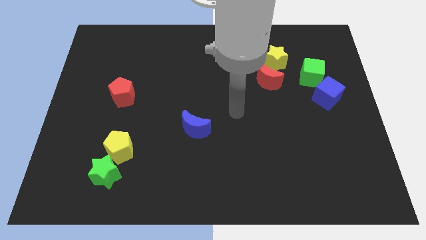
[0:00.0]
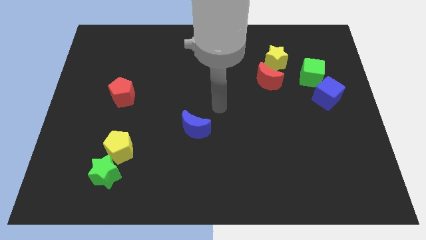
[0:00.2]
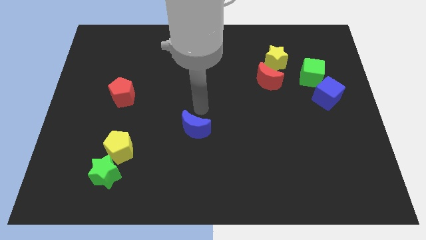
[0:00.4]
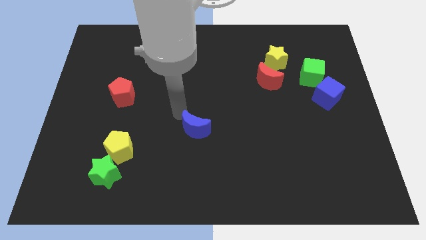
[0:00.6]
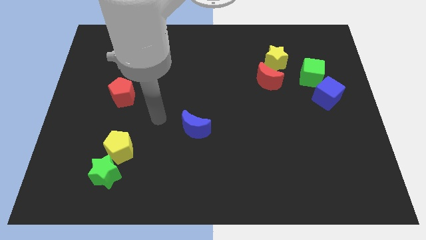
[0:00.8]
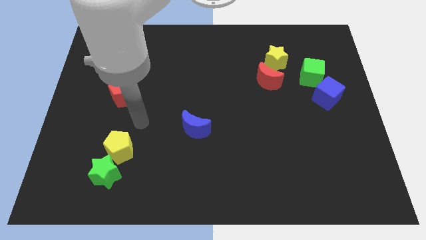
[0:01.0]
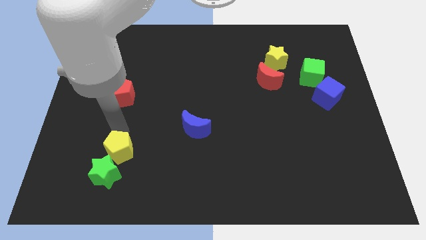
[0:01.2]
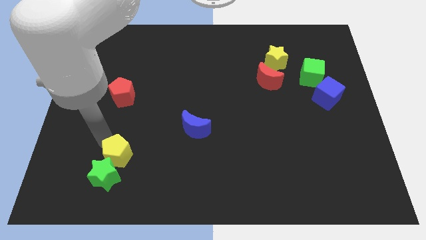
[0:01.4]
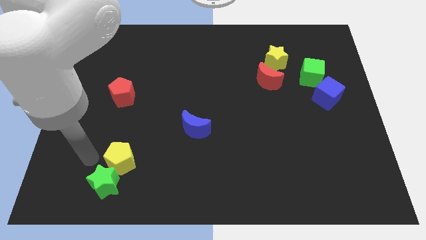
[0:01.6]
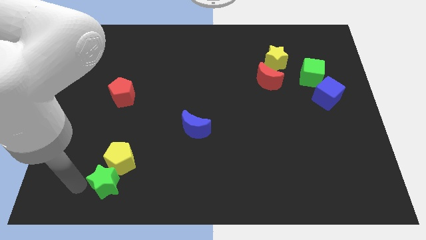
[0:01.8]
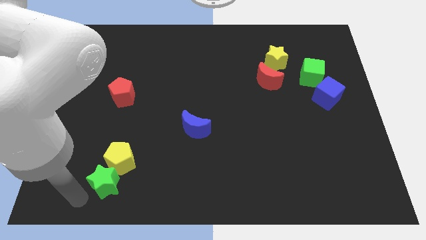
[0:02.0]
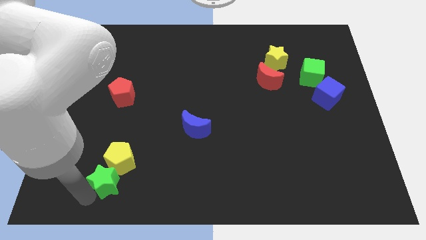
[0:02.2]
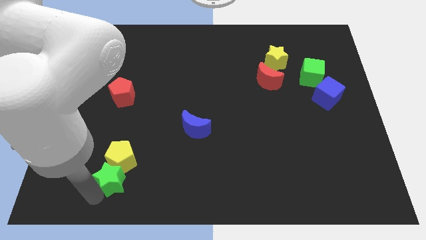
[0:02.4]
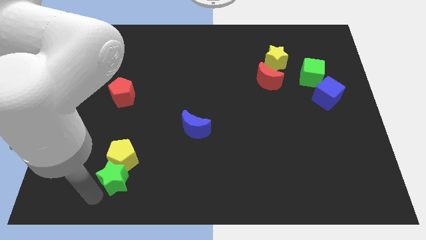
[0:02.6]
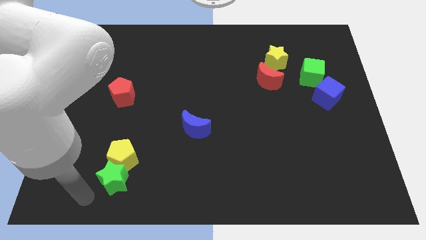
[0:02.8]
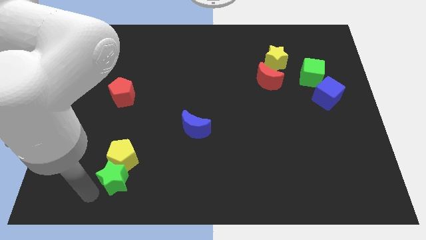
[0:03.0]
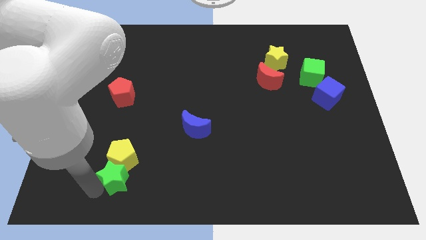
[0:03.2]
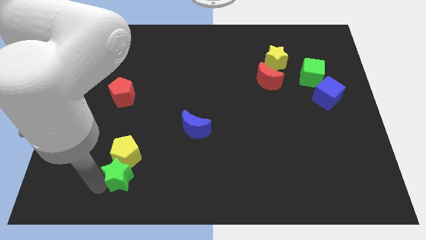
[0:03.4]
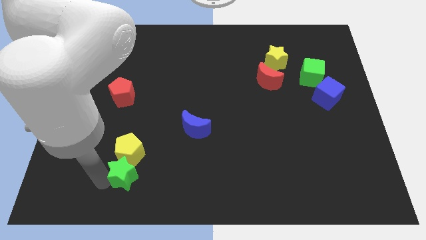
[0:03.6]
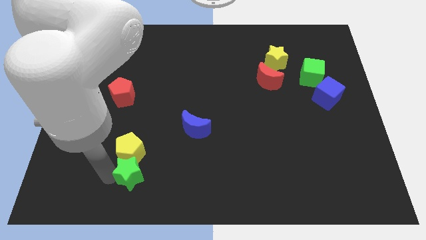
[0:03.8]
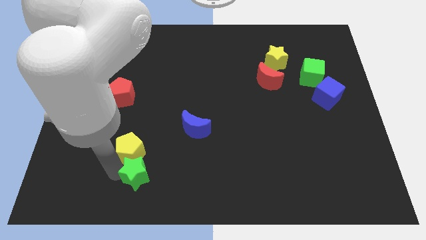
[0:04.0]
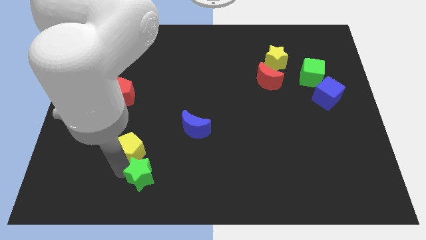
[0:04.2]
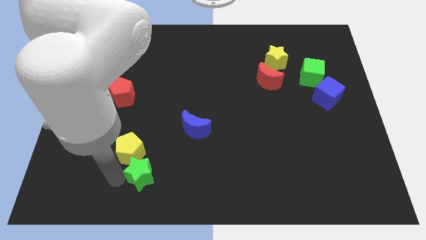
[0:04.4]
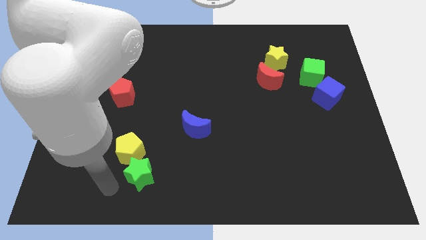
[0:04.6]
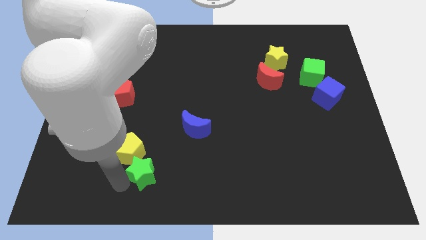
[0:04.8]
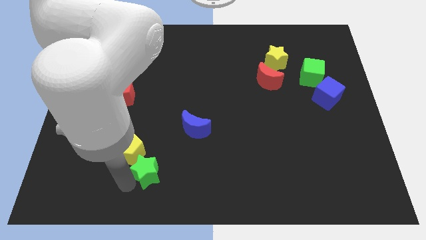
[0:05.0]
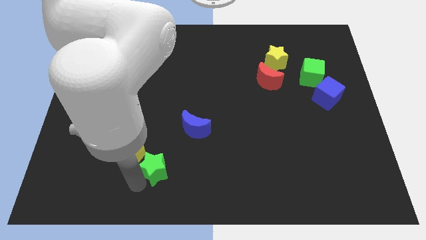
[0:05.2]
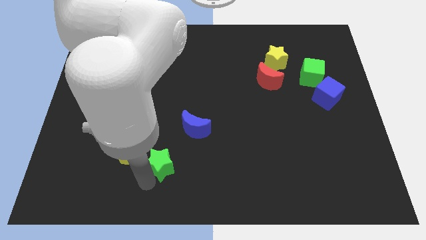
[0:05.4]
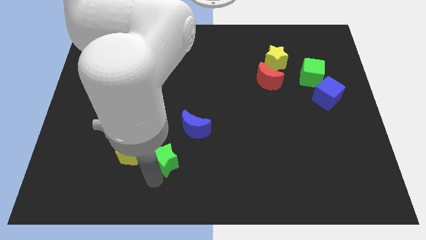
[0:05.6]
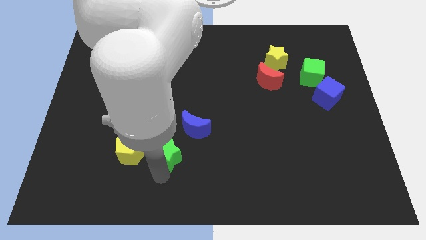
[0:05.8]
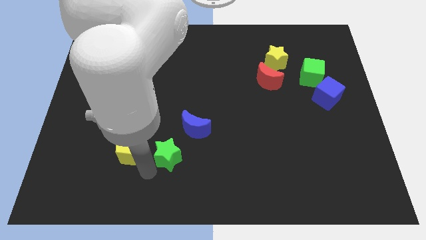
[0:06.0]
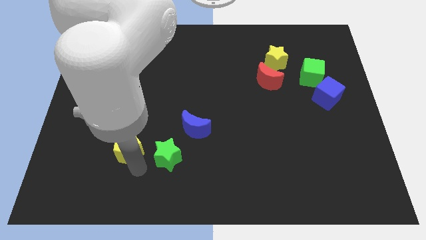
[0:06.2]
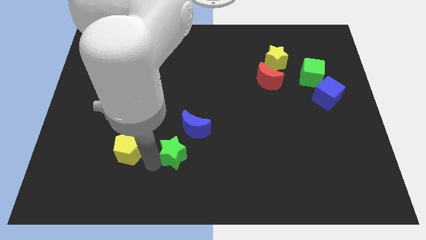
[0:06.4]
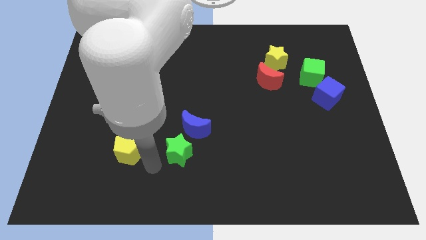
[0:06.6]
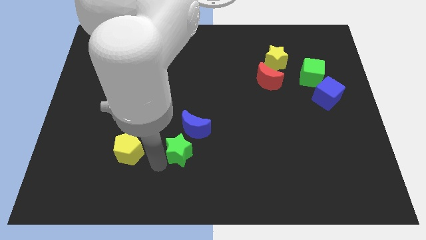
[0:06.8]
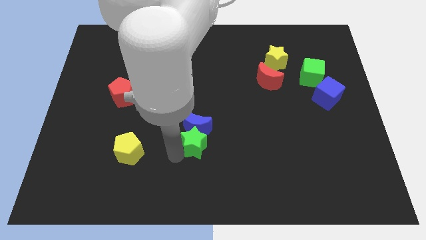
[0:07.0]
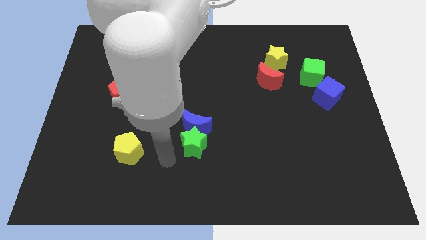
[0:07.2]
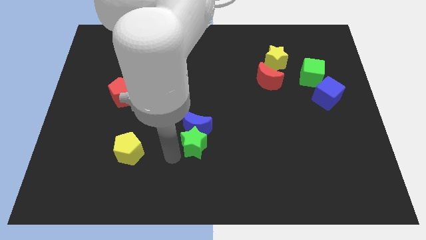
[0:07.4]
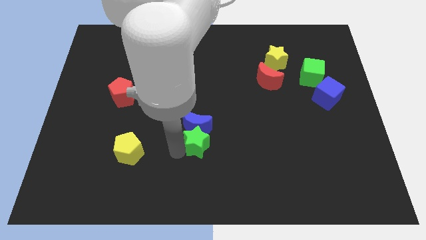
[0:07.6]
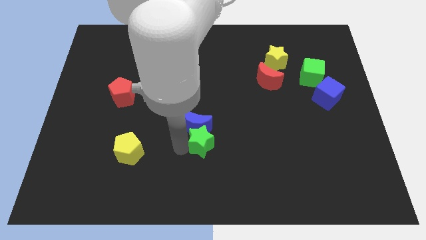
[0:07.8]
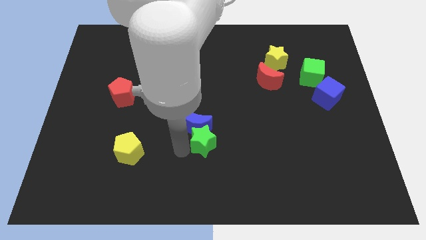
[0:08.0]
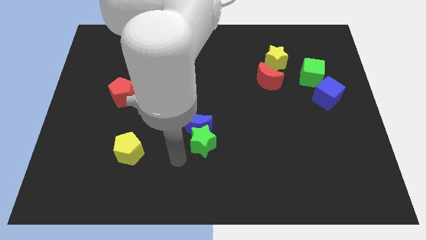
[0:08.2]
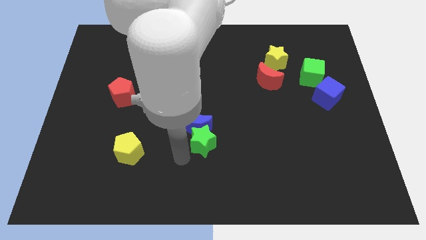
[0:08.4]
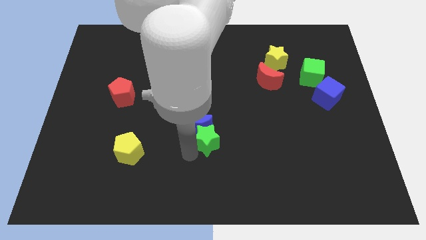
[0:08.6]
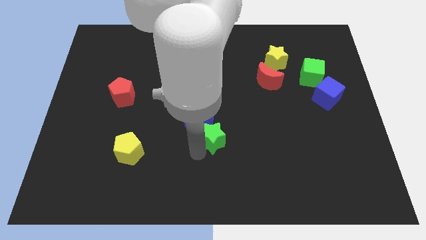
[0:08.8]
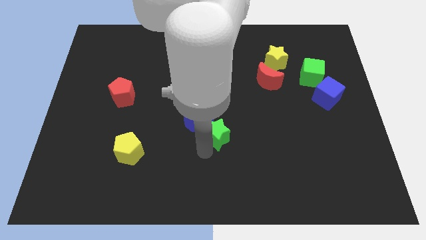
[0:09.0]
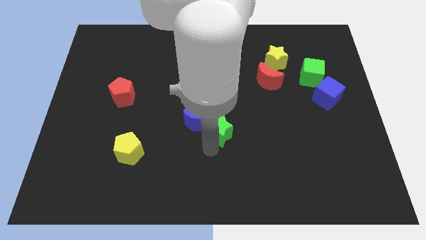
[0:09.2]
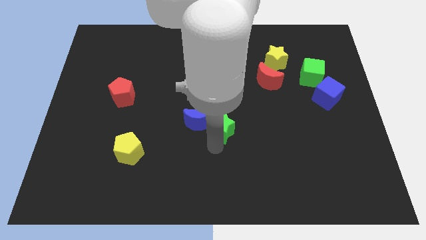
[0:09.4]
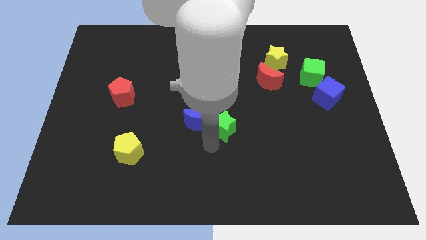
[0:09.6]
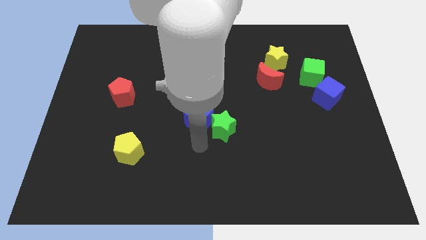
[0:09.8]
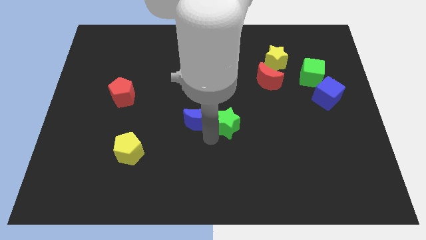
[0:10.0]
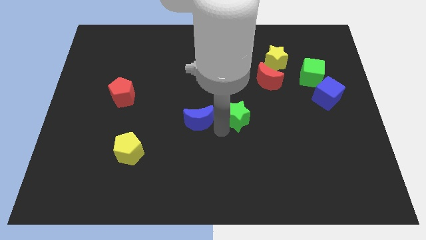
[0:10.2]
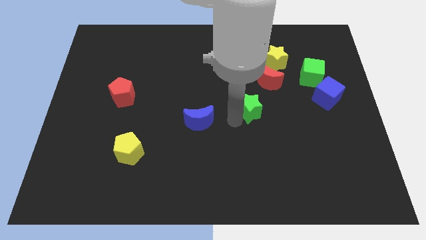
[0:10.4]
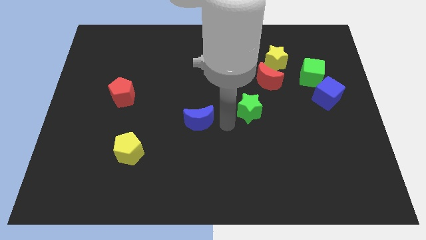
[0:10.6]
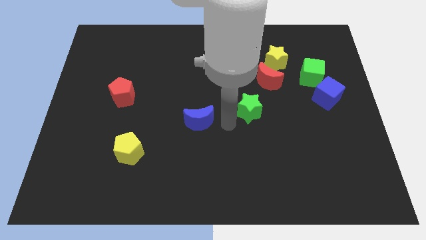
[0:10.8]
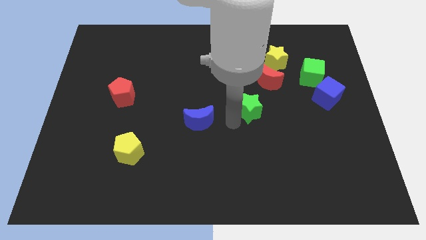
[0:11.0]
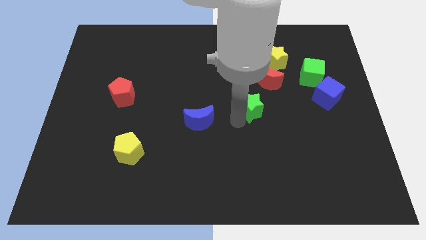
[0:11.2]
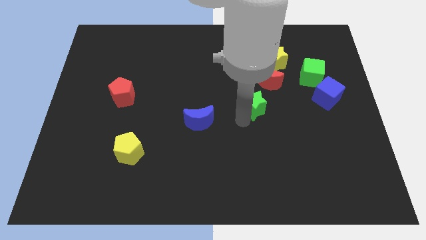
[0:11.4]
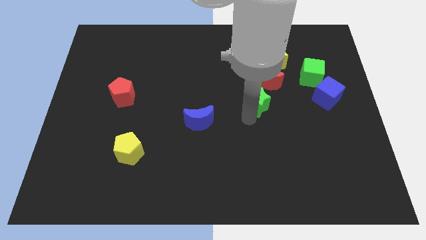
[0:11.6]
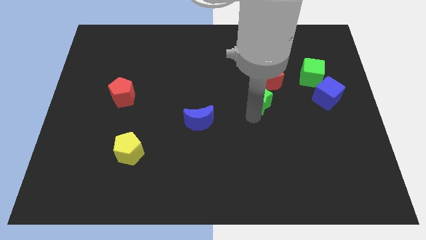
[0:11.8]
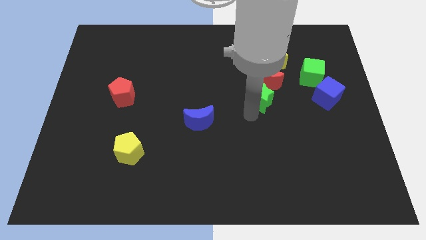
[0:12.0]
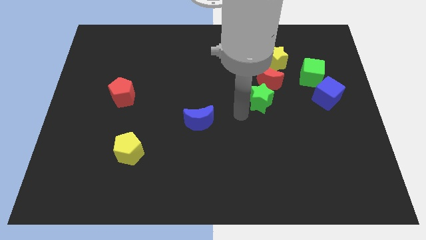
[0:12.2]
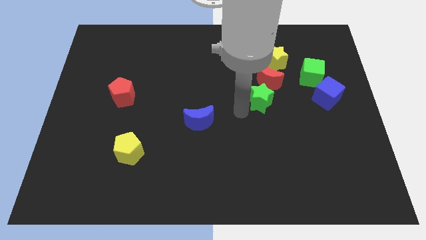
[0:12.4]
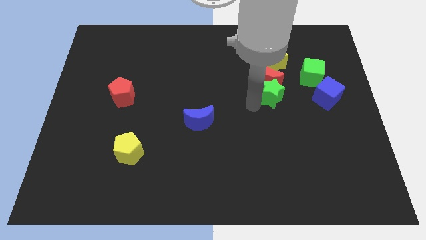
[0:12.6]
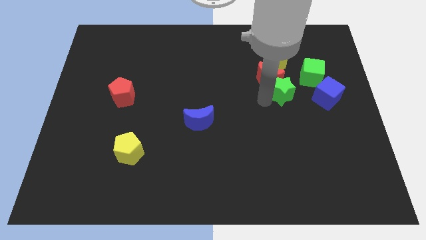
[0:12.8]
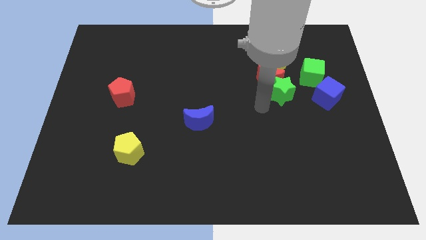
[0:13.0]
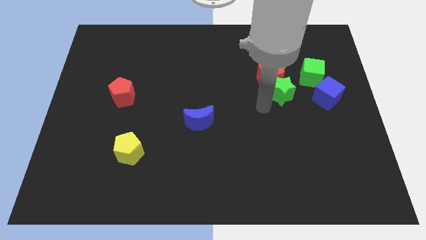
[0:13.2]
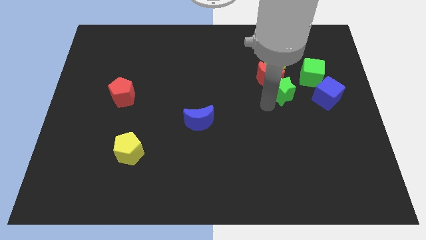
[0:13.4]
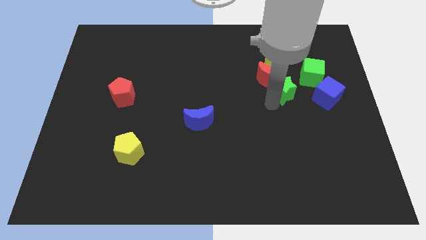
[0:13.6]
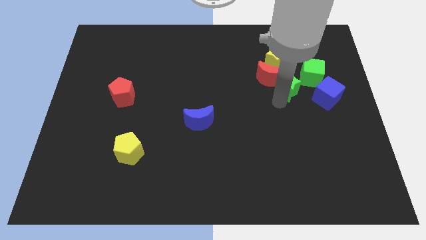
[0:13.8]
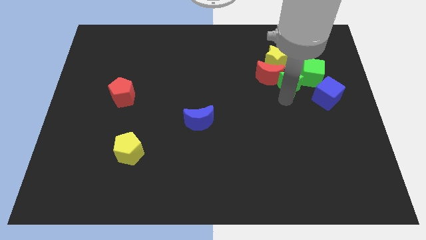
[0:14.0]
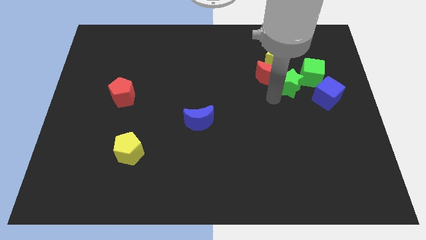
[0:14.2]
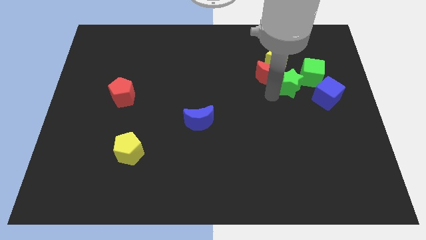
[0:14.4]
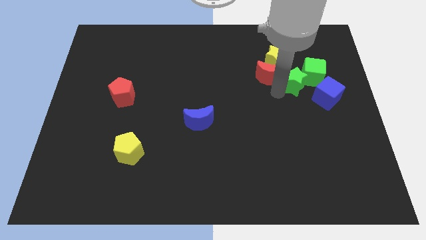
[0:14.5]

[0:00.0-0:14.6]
push the green star to the green cube

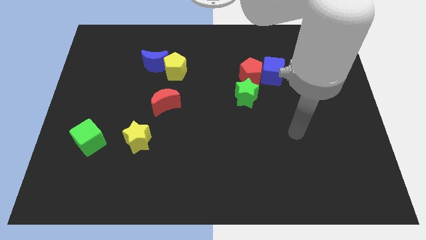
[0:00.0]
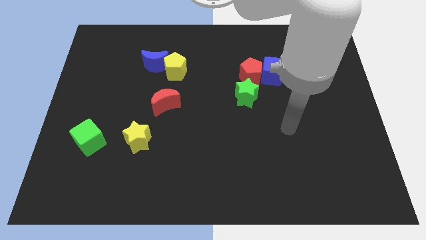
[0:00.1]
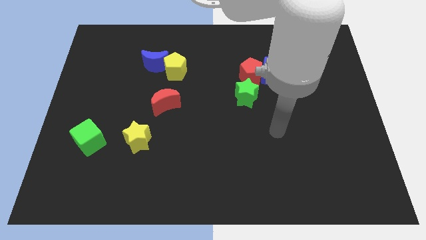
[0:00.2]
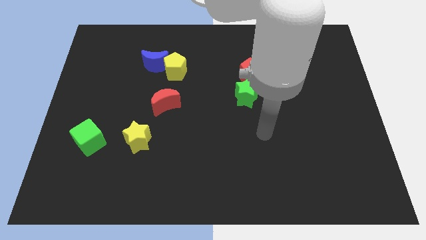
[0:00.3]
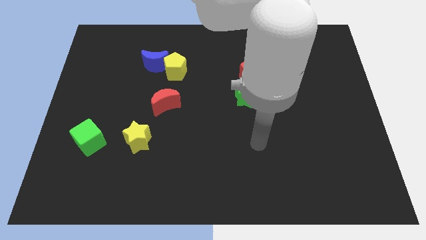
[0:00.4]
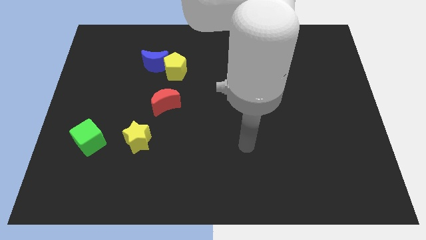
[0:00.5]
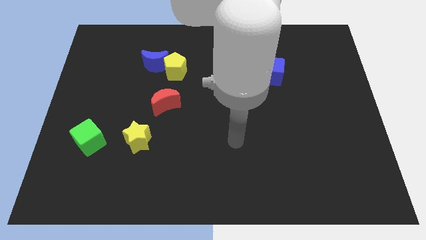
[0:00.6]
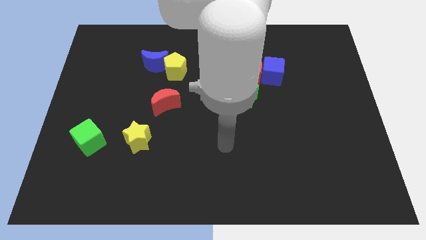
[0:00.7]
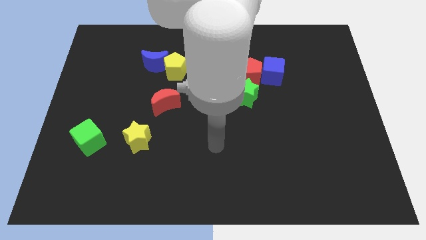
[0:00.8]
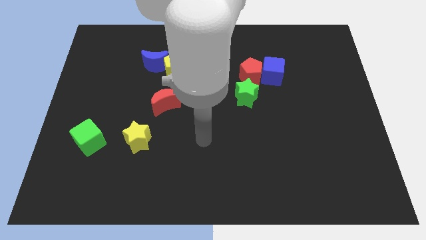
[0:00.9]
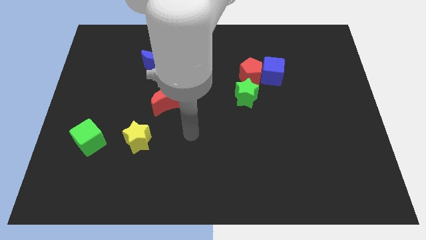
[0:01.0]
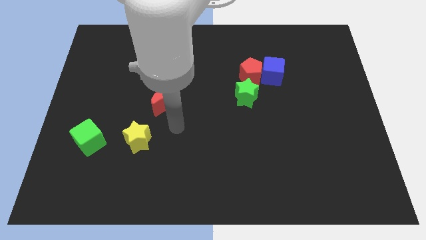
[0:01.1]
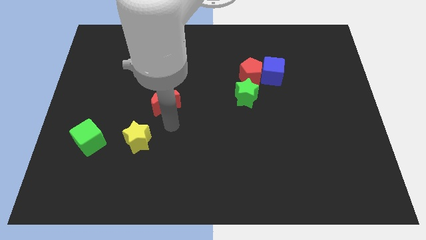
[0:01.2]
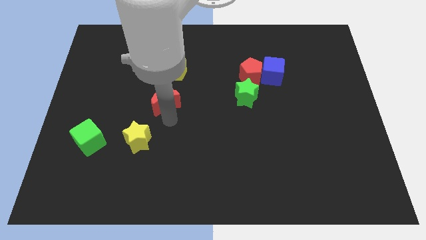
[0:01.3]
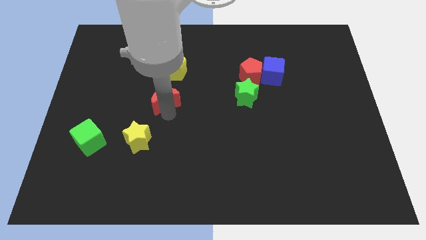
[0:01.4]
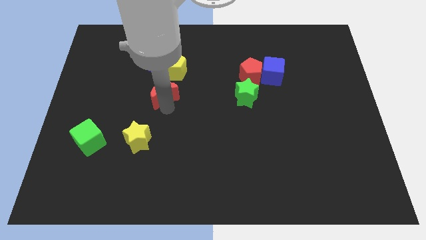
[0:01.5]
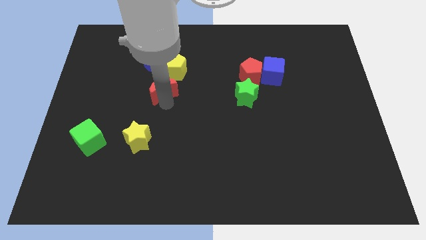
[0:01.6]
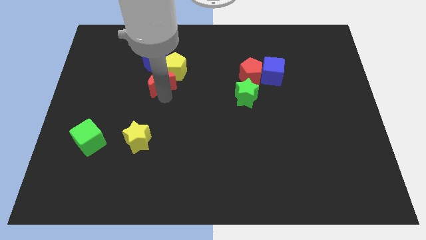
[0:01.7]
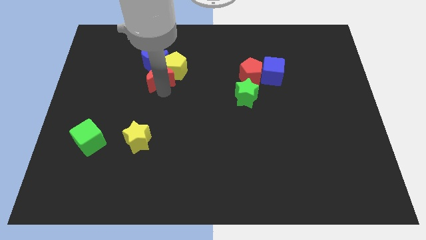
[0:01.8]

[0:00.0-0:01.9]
put the red moon next to the blue moon
